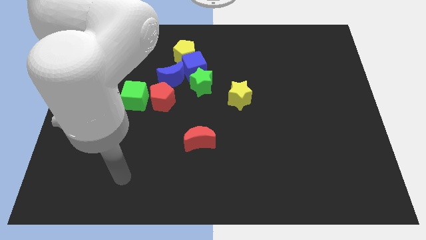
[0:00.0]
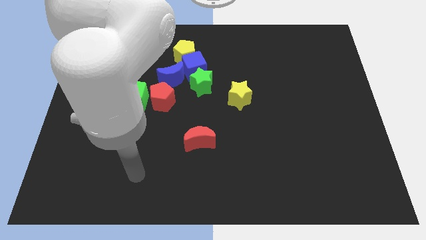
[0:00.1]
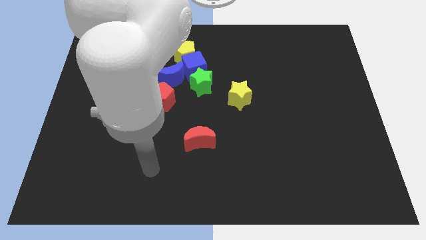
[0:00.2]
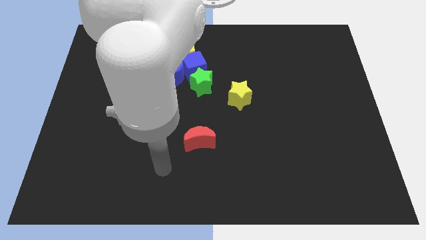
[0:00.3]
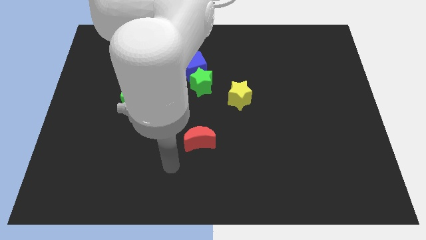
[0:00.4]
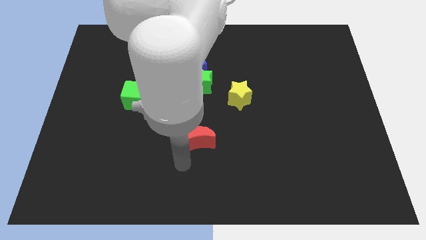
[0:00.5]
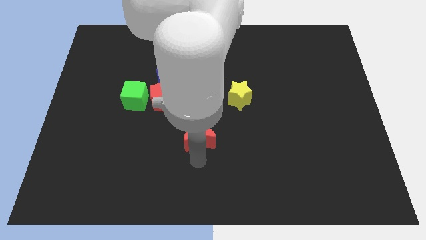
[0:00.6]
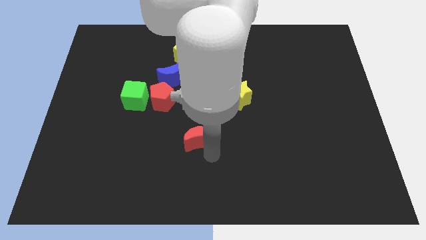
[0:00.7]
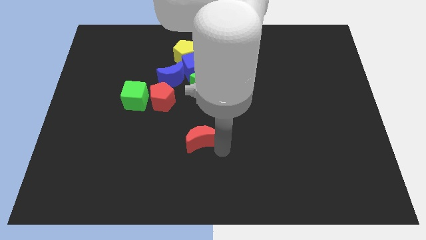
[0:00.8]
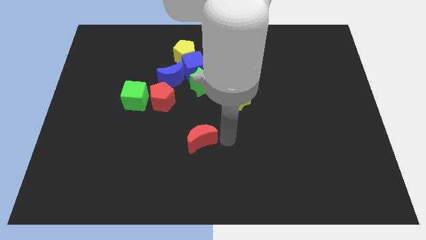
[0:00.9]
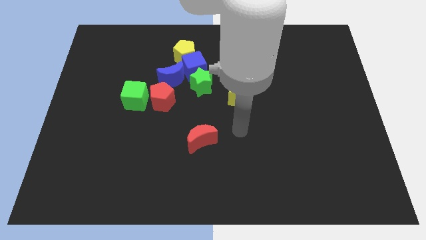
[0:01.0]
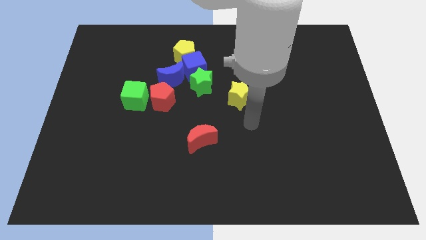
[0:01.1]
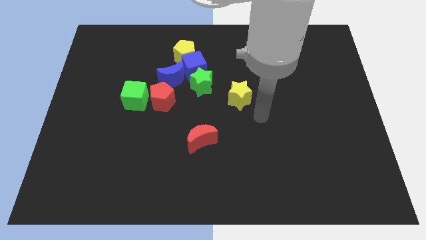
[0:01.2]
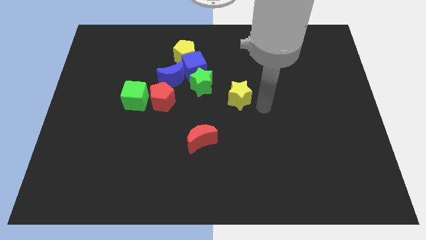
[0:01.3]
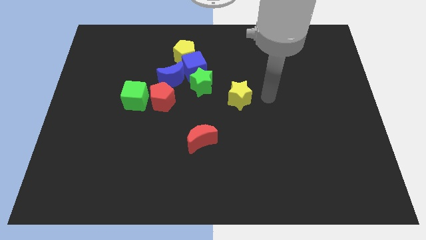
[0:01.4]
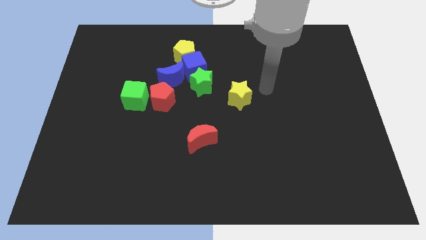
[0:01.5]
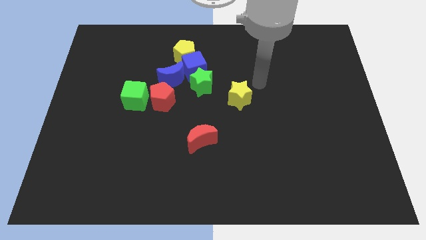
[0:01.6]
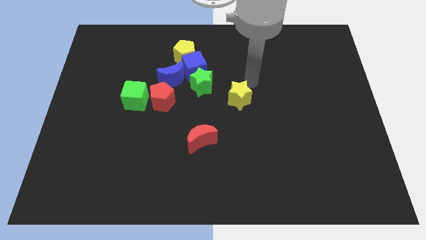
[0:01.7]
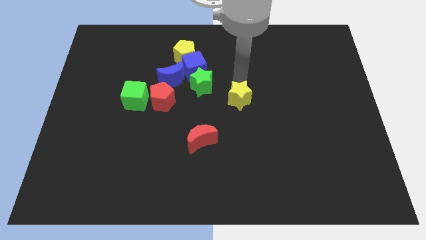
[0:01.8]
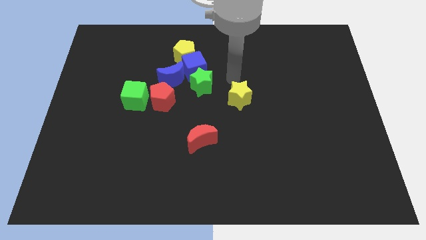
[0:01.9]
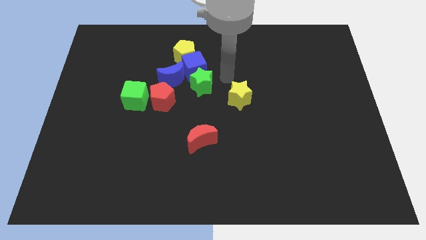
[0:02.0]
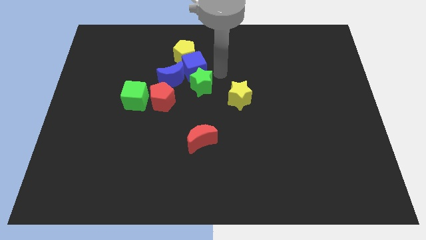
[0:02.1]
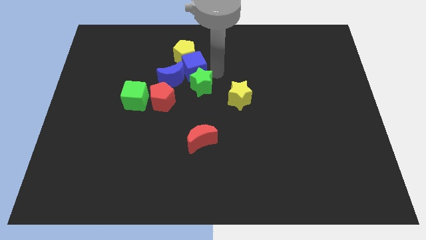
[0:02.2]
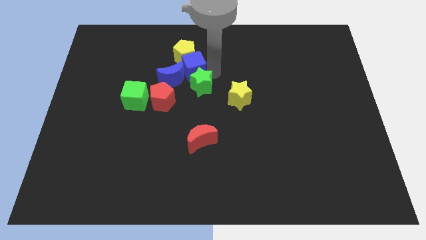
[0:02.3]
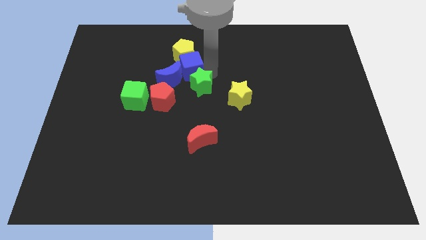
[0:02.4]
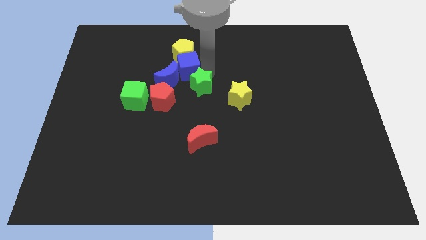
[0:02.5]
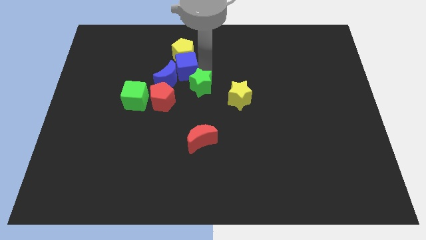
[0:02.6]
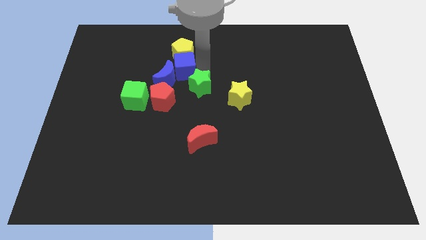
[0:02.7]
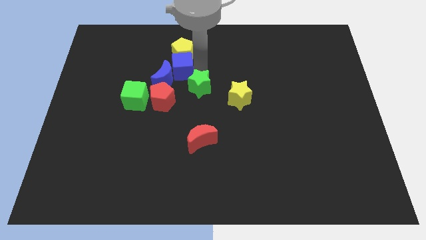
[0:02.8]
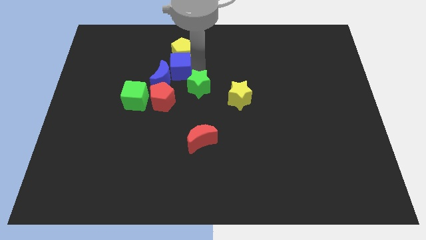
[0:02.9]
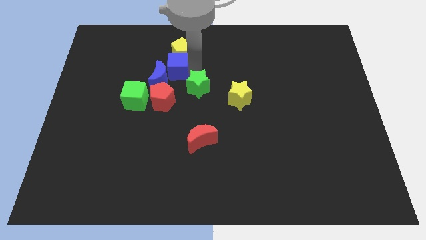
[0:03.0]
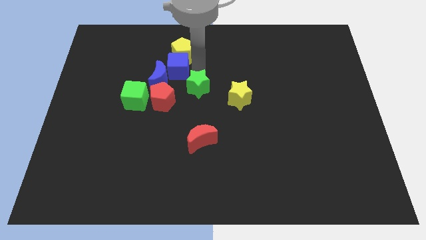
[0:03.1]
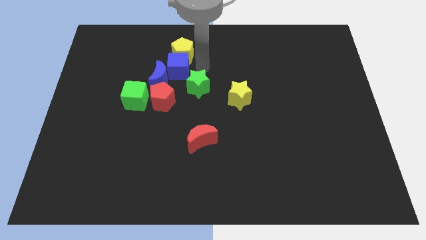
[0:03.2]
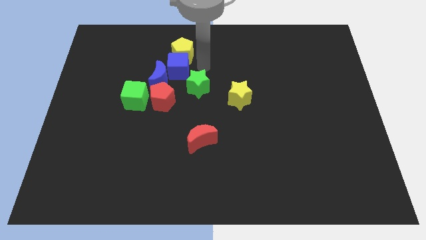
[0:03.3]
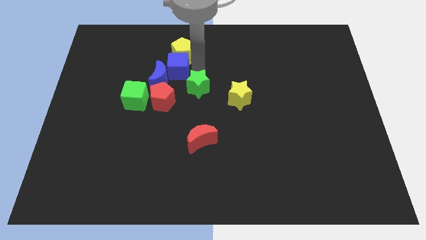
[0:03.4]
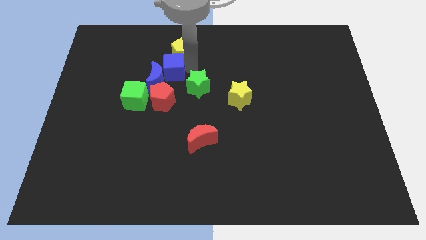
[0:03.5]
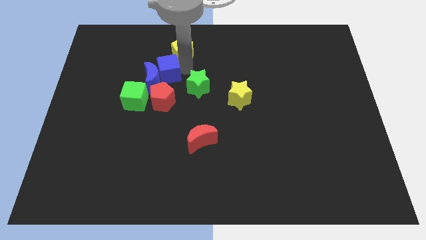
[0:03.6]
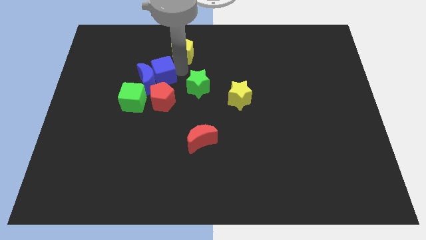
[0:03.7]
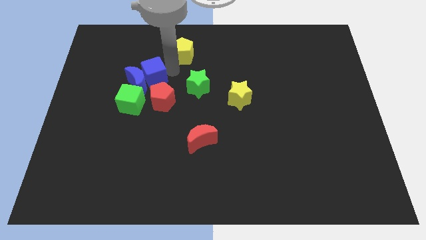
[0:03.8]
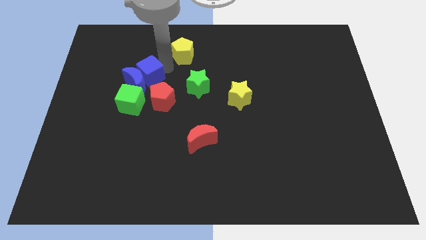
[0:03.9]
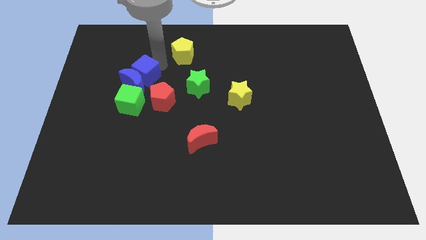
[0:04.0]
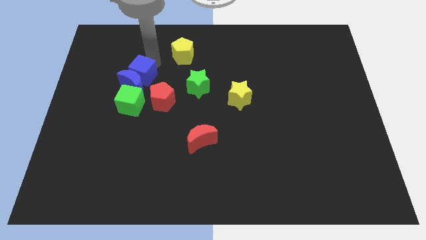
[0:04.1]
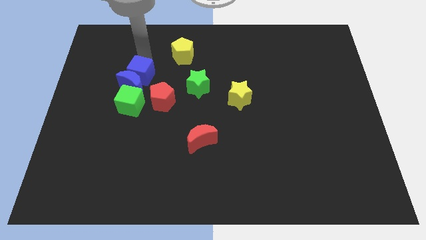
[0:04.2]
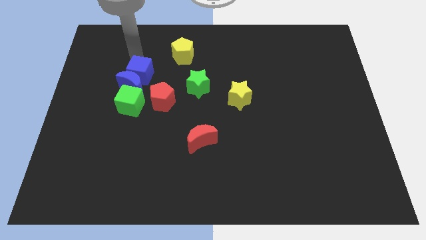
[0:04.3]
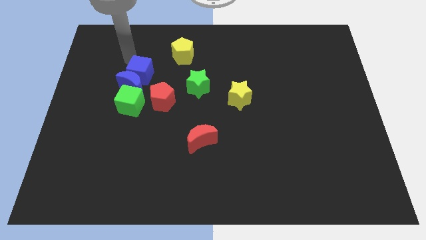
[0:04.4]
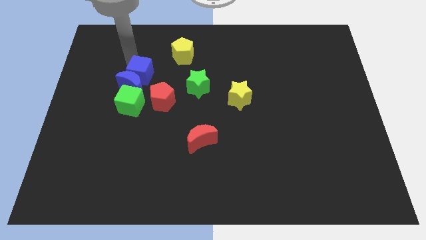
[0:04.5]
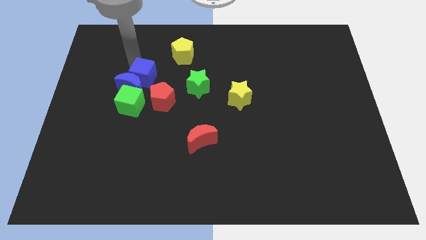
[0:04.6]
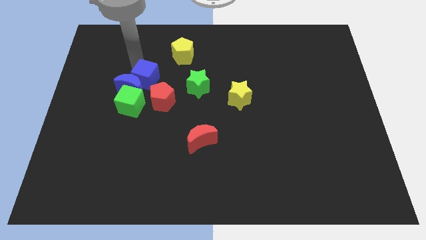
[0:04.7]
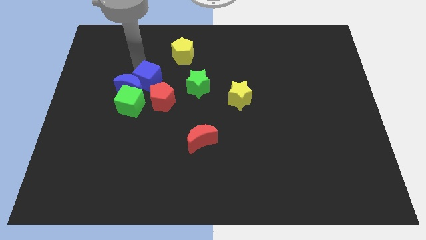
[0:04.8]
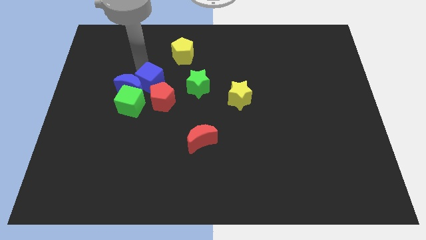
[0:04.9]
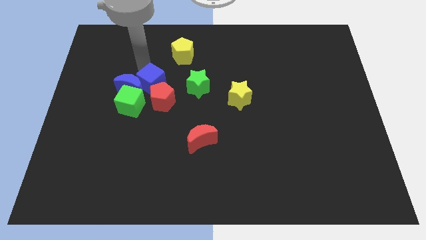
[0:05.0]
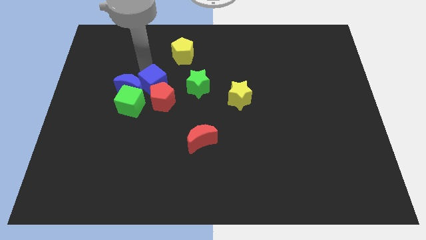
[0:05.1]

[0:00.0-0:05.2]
move the blue cube to the red pentagon

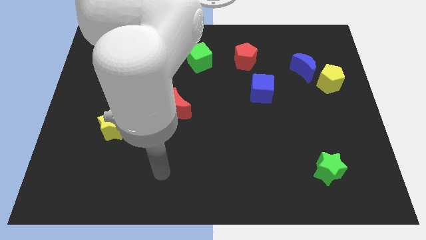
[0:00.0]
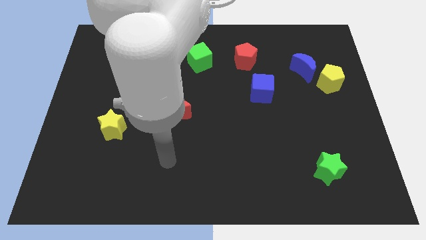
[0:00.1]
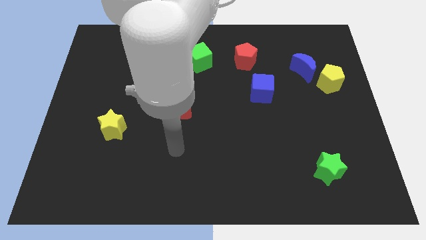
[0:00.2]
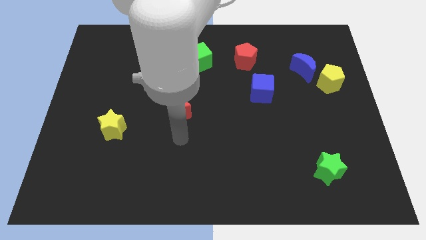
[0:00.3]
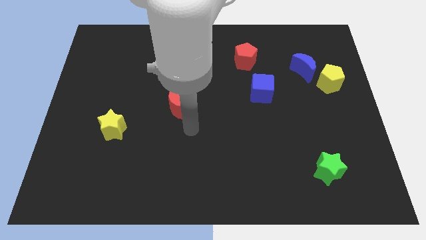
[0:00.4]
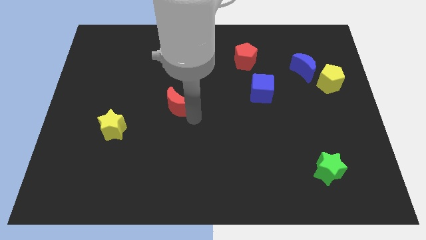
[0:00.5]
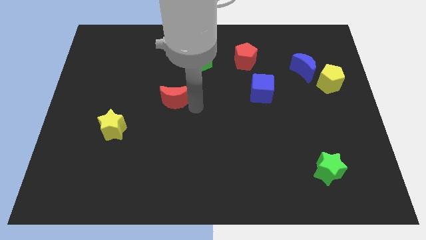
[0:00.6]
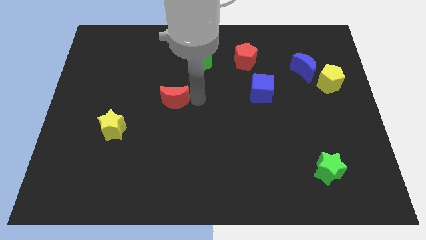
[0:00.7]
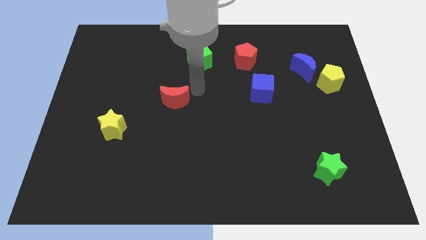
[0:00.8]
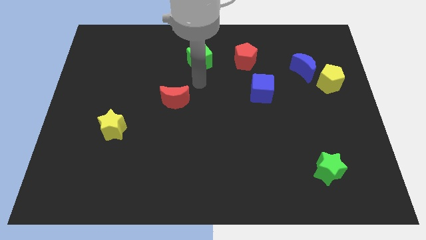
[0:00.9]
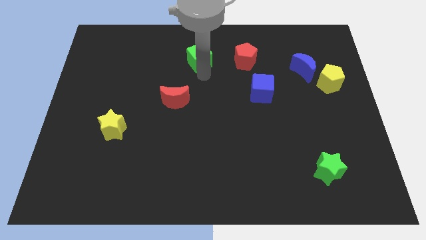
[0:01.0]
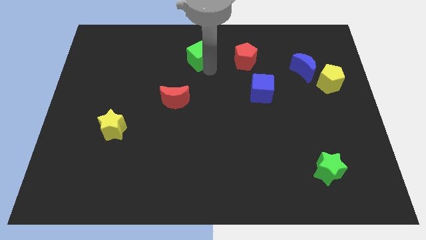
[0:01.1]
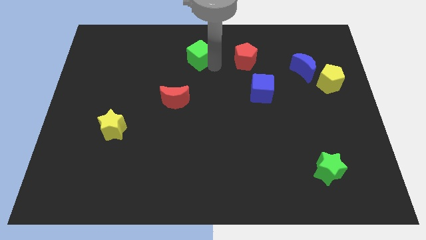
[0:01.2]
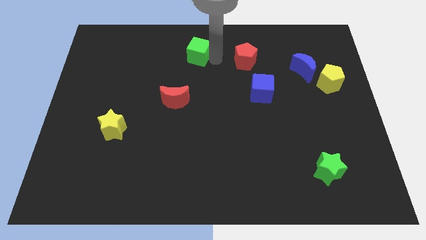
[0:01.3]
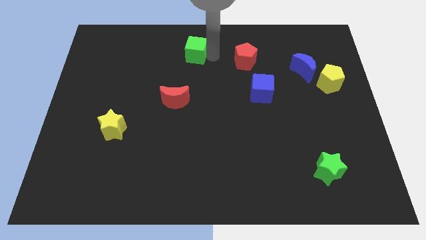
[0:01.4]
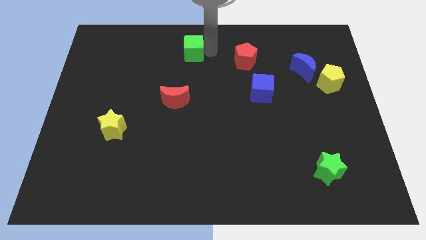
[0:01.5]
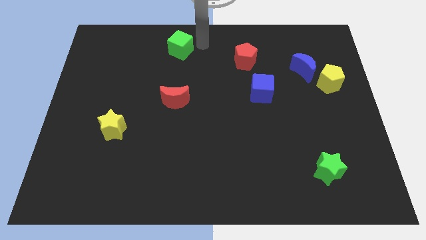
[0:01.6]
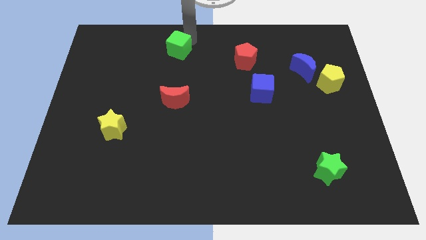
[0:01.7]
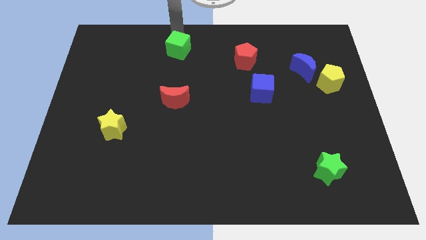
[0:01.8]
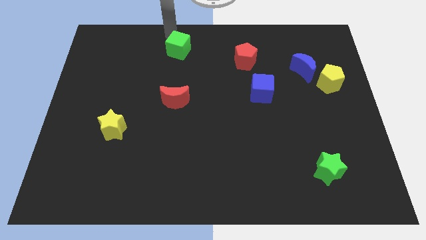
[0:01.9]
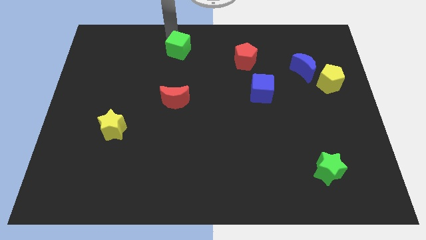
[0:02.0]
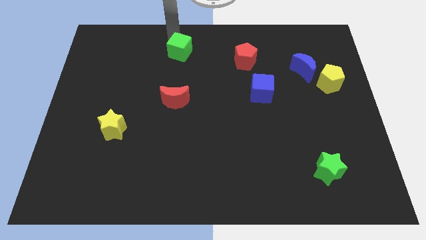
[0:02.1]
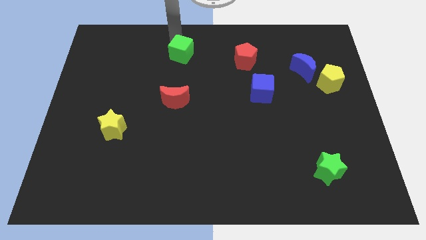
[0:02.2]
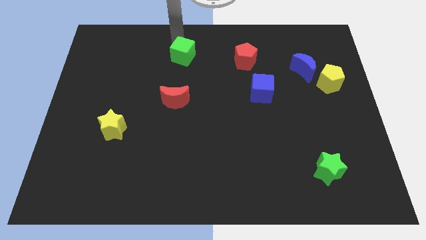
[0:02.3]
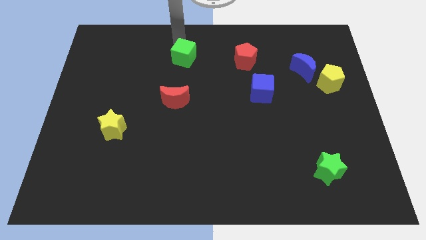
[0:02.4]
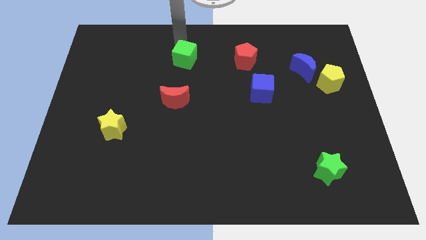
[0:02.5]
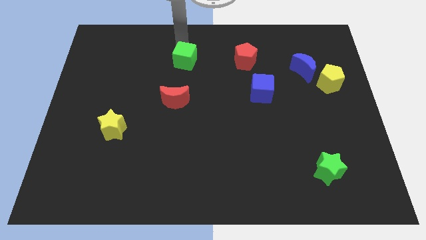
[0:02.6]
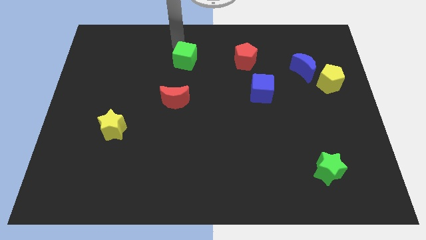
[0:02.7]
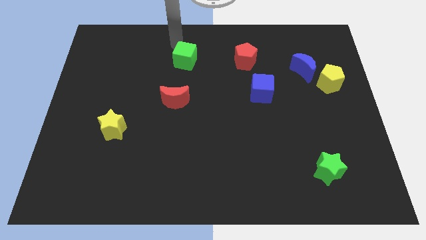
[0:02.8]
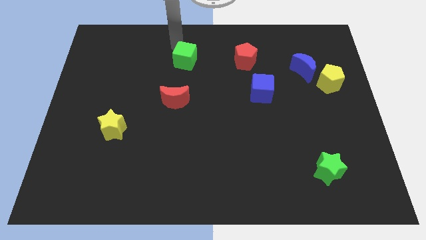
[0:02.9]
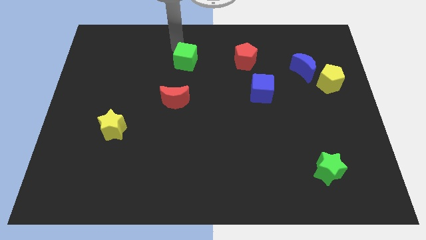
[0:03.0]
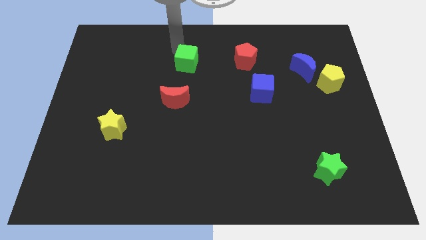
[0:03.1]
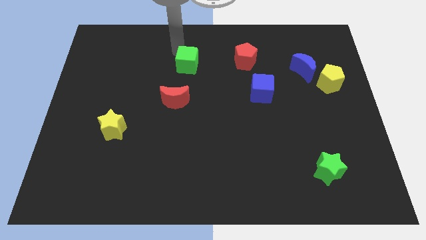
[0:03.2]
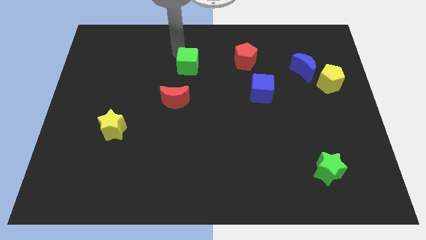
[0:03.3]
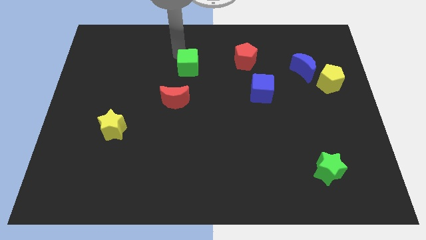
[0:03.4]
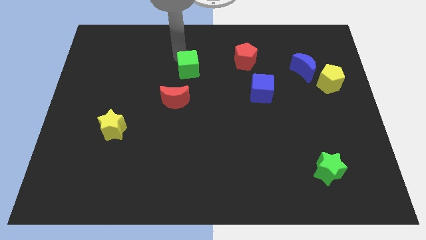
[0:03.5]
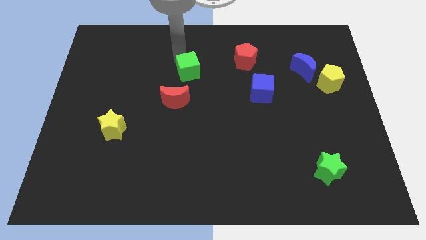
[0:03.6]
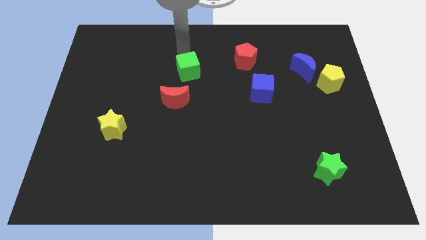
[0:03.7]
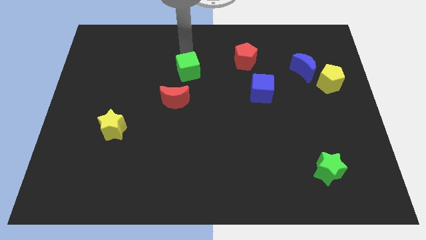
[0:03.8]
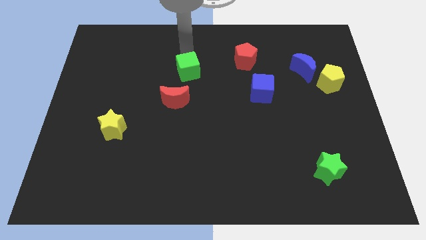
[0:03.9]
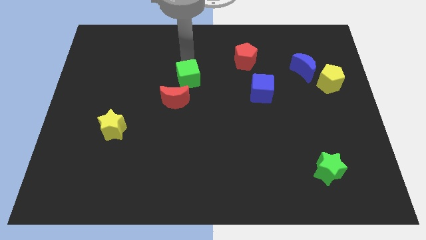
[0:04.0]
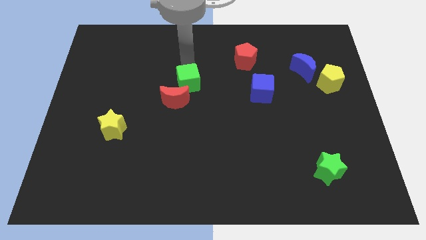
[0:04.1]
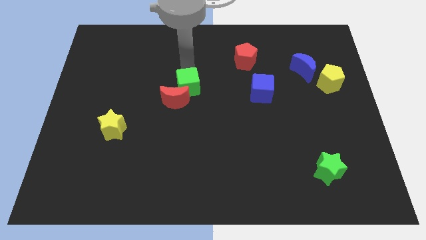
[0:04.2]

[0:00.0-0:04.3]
move the green cube close to the red moon
